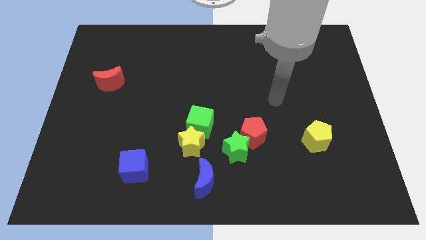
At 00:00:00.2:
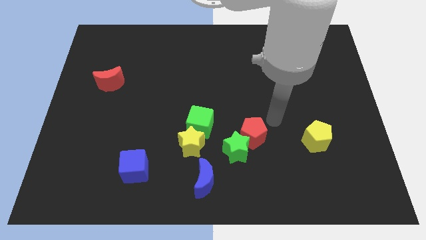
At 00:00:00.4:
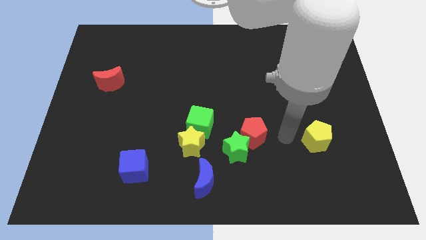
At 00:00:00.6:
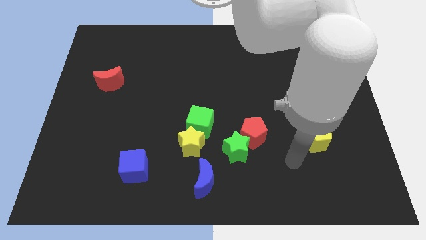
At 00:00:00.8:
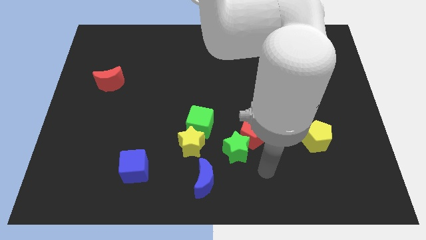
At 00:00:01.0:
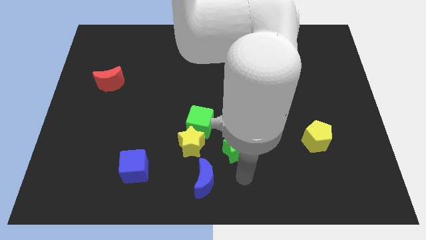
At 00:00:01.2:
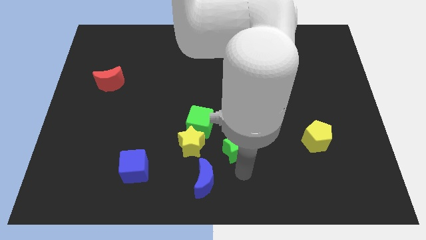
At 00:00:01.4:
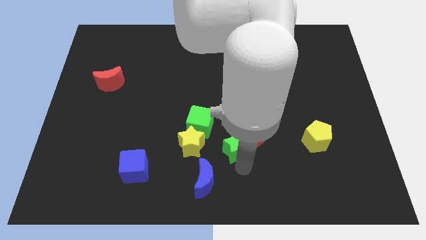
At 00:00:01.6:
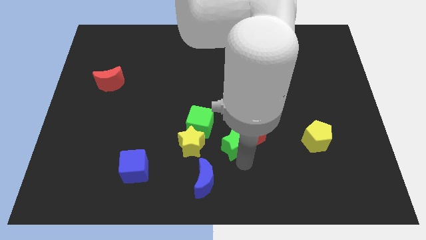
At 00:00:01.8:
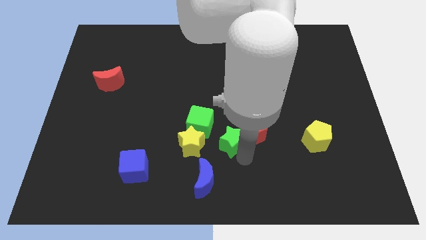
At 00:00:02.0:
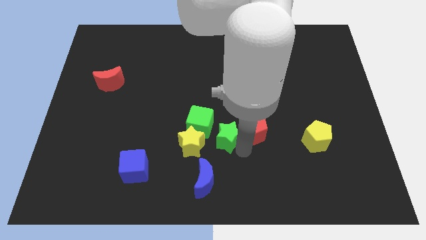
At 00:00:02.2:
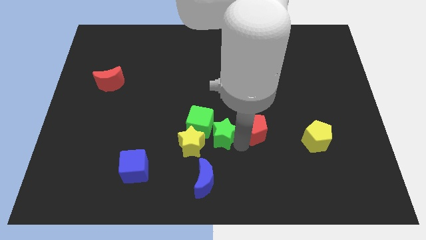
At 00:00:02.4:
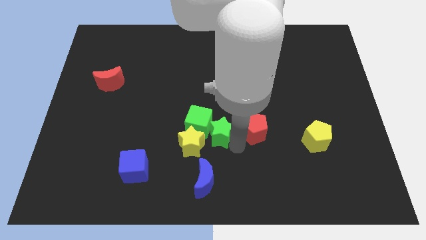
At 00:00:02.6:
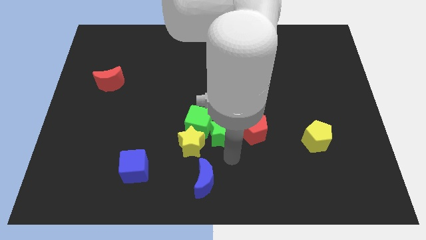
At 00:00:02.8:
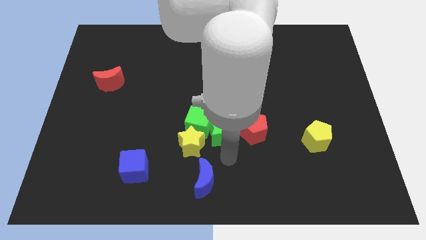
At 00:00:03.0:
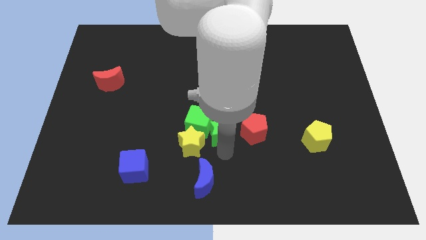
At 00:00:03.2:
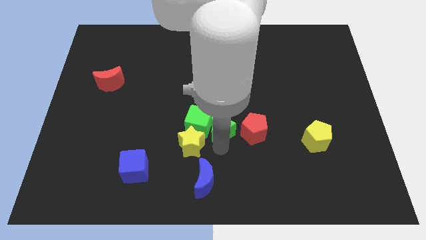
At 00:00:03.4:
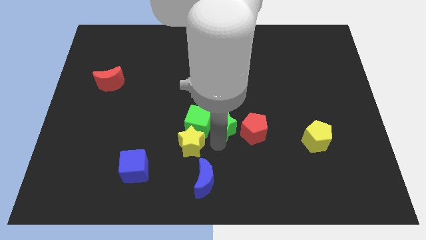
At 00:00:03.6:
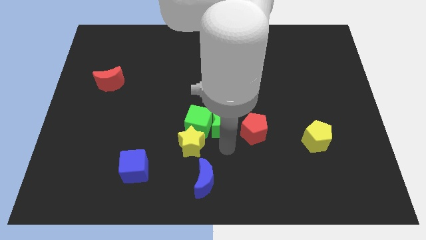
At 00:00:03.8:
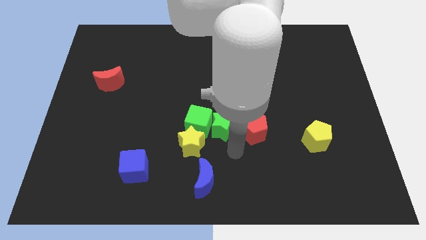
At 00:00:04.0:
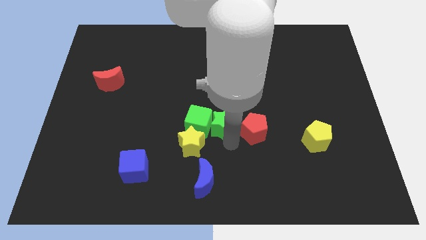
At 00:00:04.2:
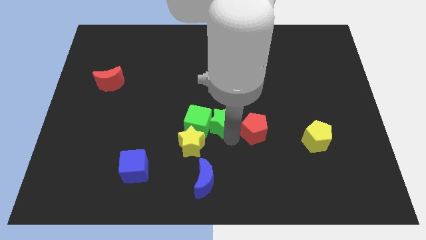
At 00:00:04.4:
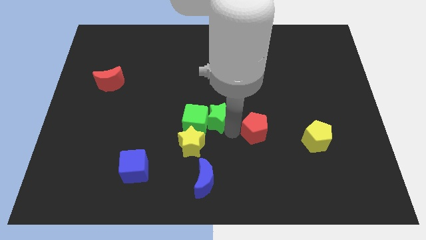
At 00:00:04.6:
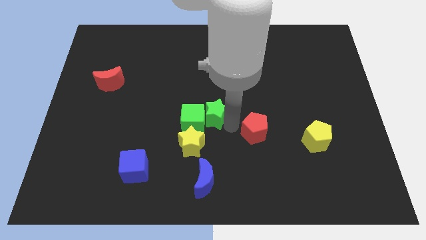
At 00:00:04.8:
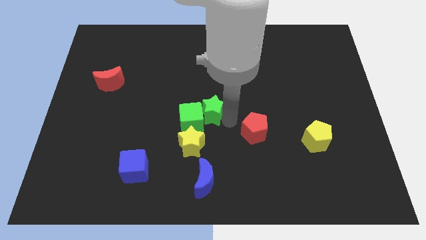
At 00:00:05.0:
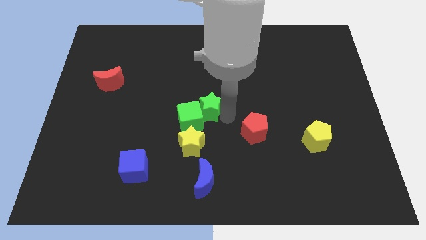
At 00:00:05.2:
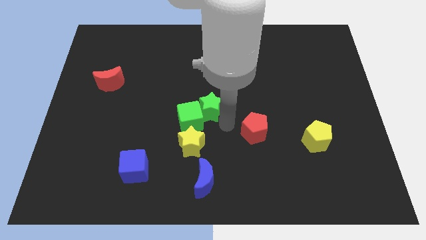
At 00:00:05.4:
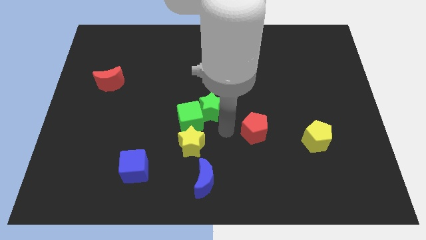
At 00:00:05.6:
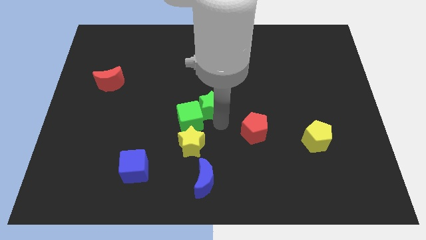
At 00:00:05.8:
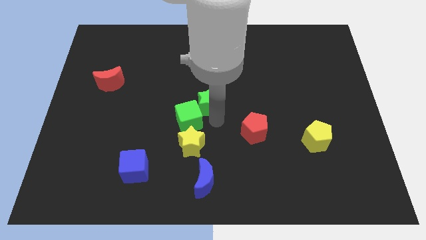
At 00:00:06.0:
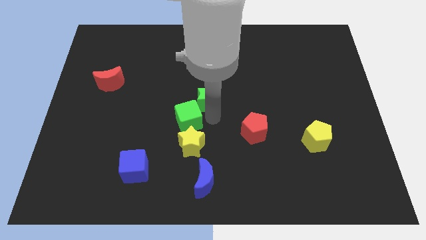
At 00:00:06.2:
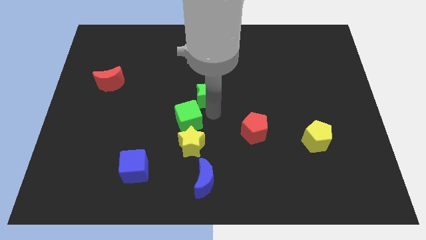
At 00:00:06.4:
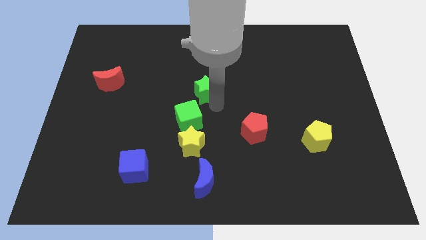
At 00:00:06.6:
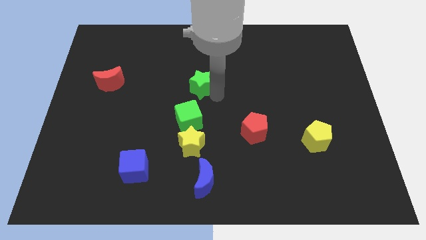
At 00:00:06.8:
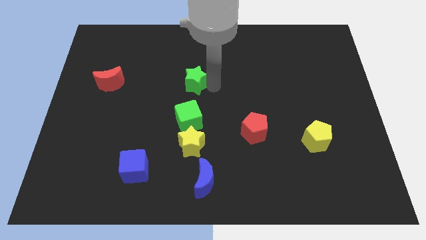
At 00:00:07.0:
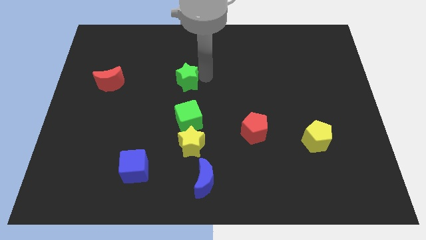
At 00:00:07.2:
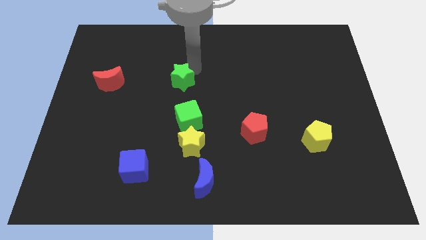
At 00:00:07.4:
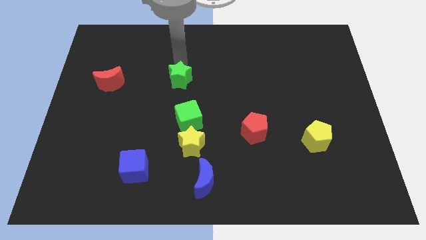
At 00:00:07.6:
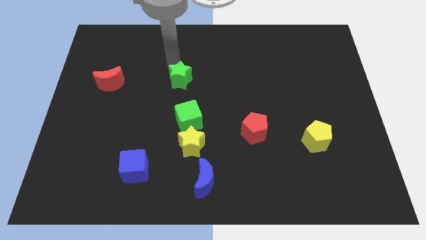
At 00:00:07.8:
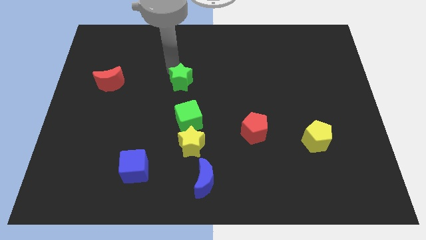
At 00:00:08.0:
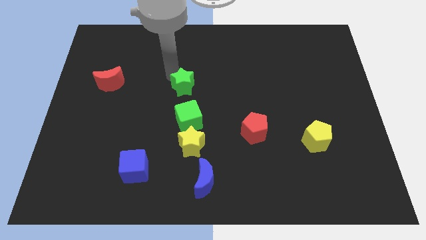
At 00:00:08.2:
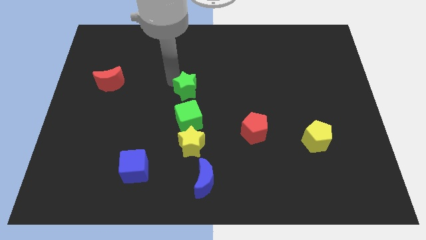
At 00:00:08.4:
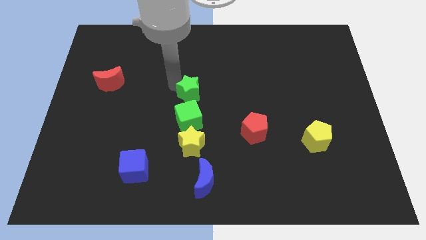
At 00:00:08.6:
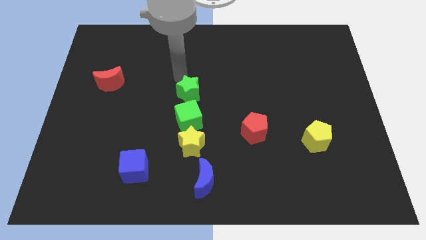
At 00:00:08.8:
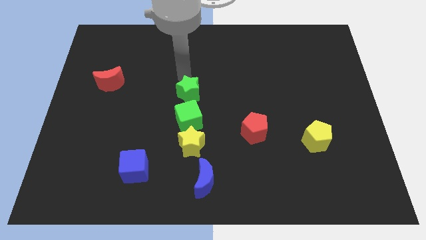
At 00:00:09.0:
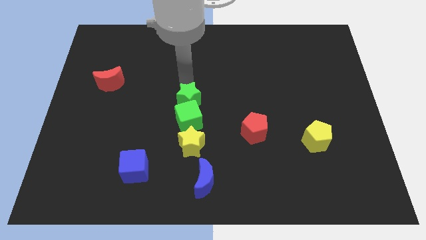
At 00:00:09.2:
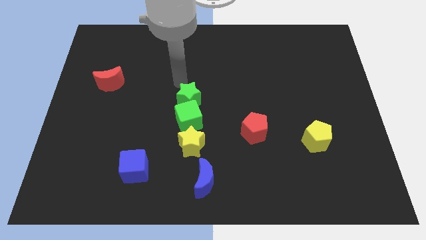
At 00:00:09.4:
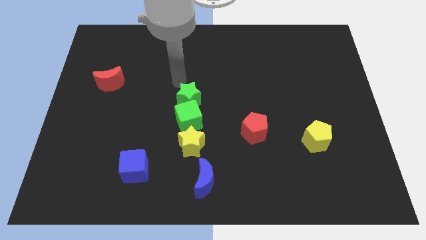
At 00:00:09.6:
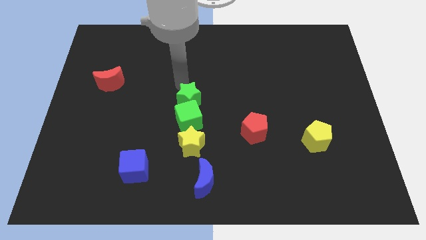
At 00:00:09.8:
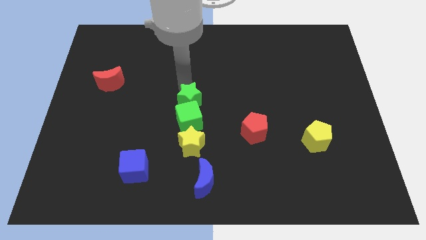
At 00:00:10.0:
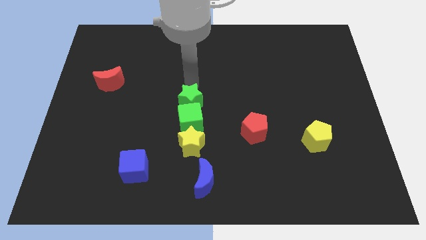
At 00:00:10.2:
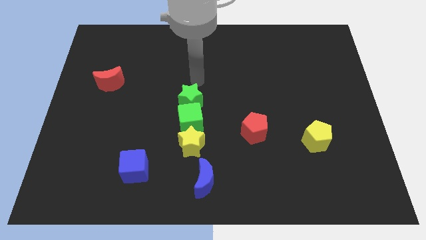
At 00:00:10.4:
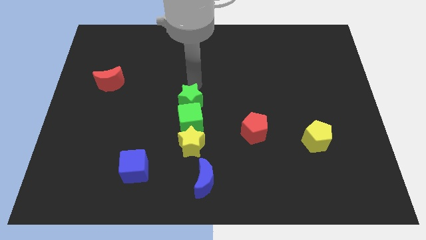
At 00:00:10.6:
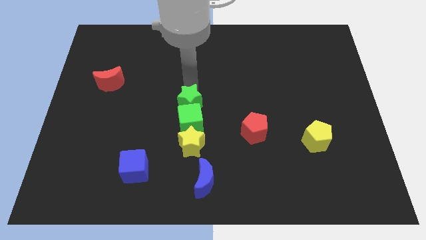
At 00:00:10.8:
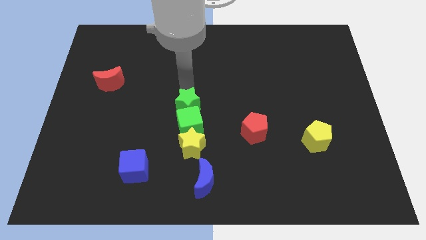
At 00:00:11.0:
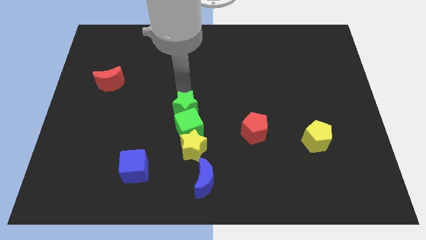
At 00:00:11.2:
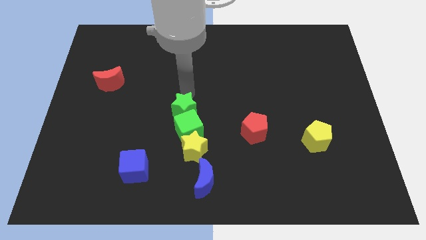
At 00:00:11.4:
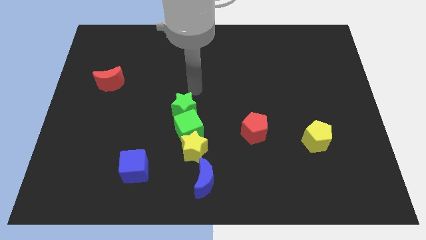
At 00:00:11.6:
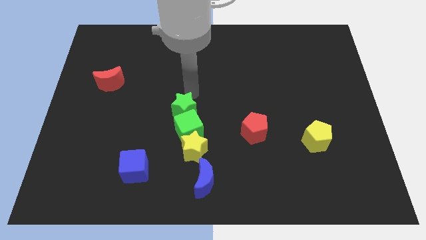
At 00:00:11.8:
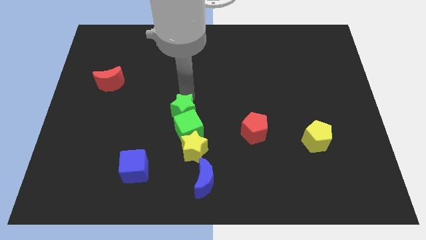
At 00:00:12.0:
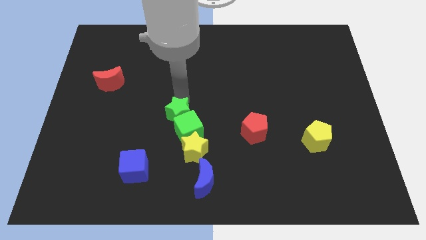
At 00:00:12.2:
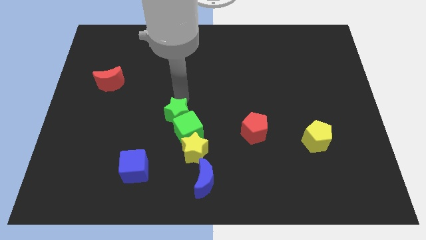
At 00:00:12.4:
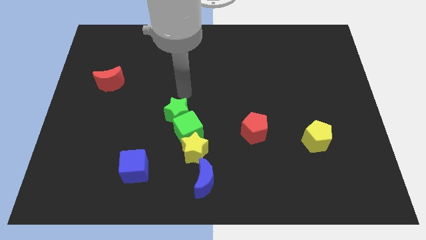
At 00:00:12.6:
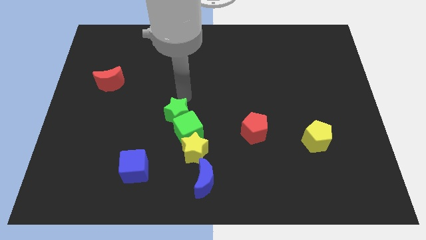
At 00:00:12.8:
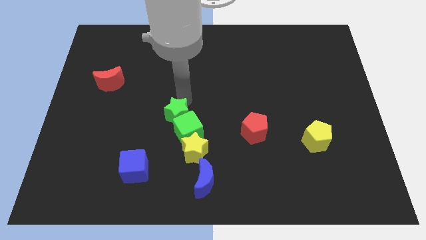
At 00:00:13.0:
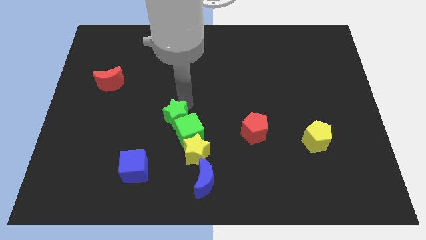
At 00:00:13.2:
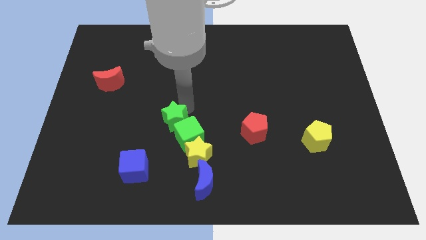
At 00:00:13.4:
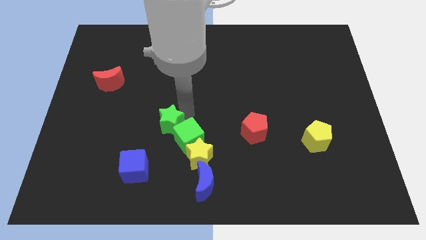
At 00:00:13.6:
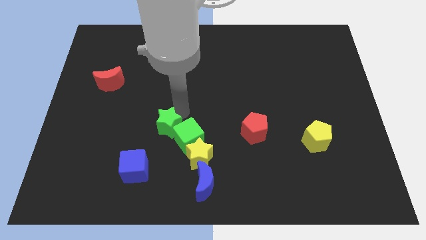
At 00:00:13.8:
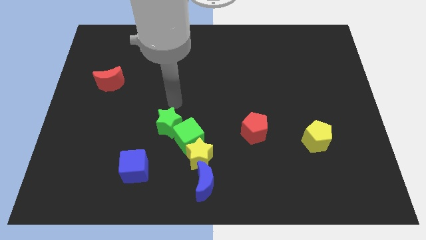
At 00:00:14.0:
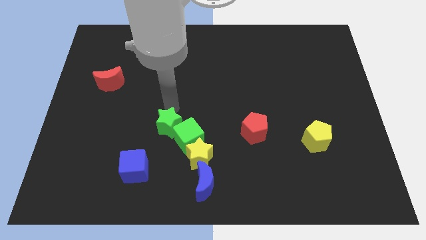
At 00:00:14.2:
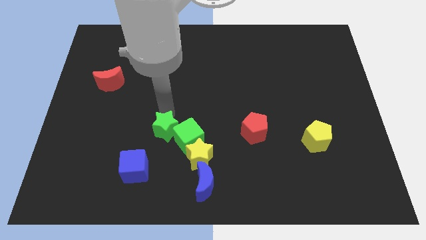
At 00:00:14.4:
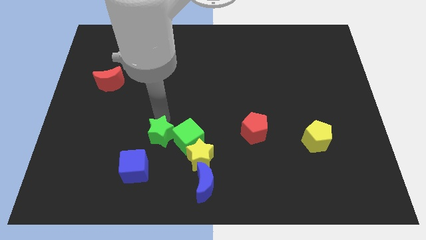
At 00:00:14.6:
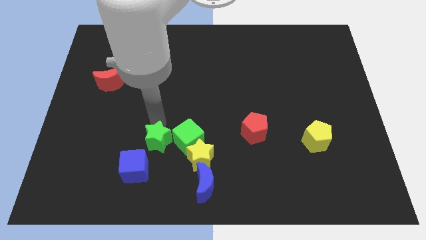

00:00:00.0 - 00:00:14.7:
put the green star to the bottom left of the green cube
